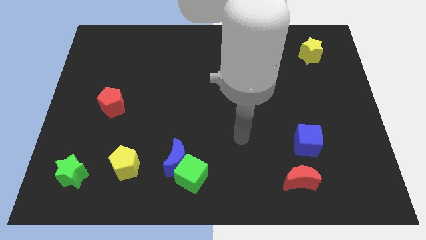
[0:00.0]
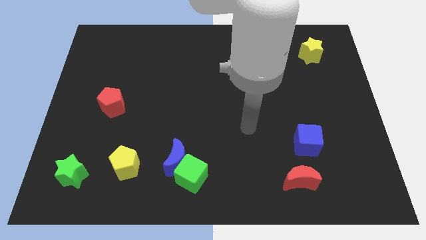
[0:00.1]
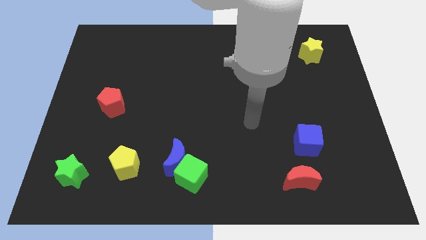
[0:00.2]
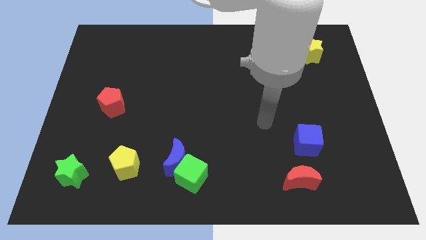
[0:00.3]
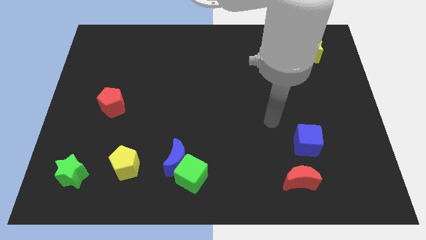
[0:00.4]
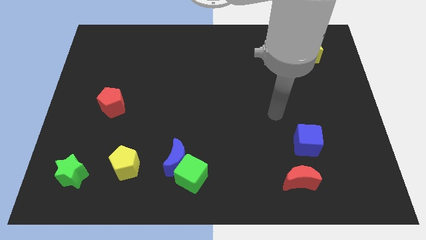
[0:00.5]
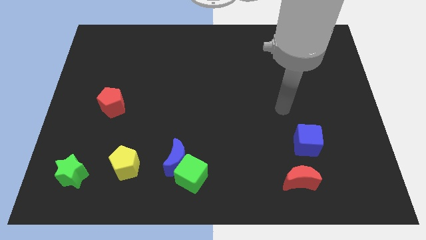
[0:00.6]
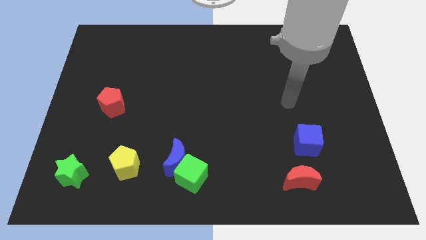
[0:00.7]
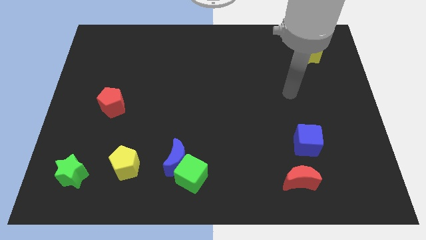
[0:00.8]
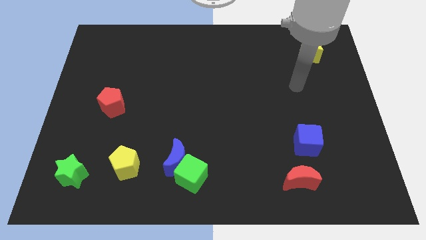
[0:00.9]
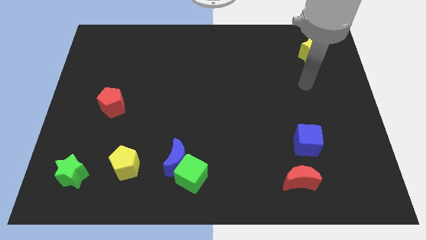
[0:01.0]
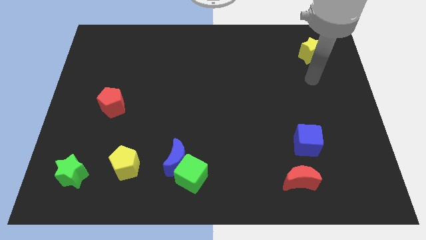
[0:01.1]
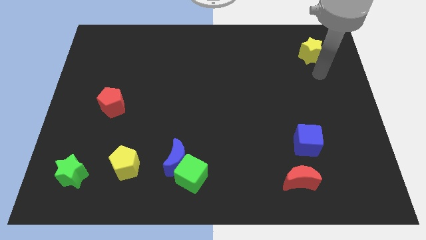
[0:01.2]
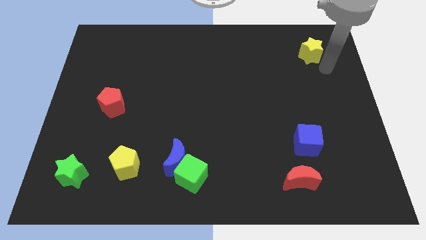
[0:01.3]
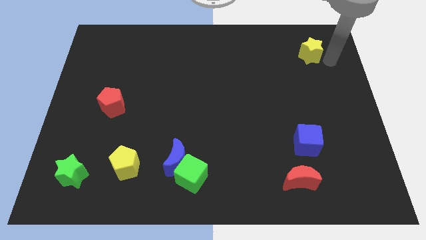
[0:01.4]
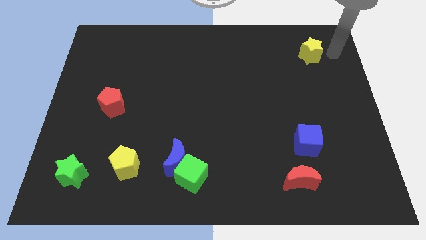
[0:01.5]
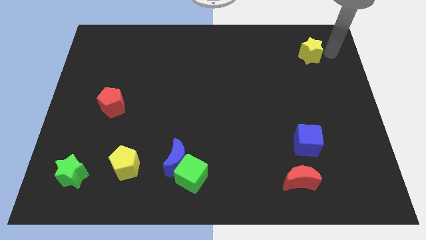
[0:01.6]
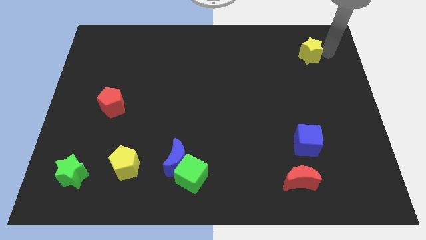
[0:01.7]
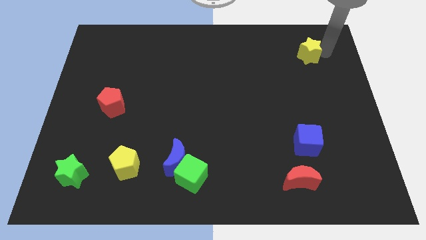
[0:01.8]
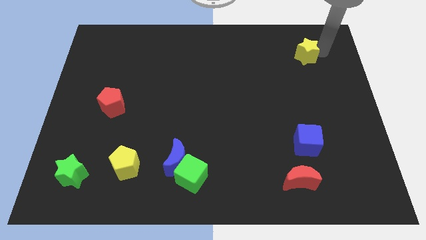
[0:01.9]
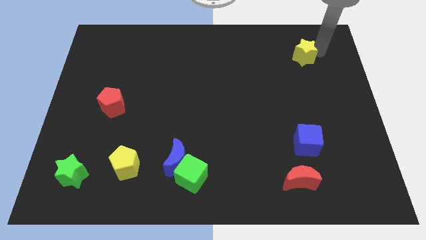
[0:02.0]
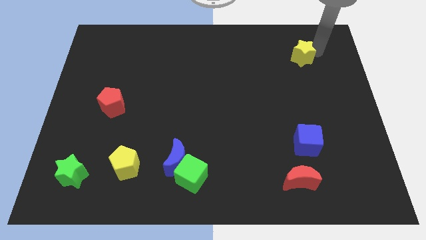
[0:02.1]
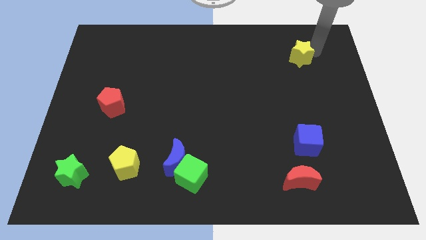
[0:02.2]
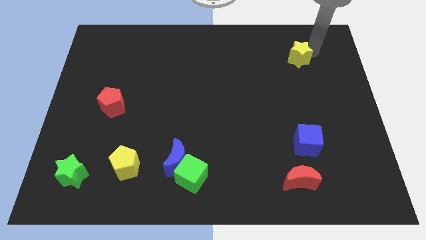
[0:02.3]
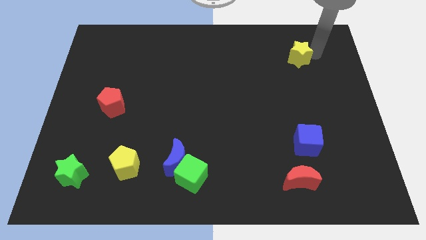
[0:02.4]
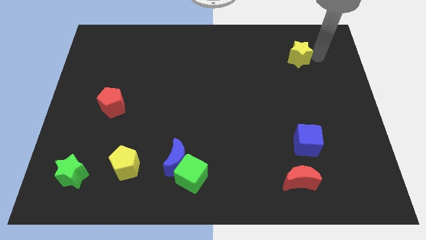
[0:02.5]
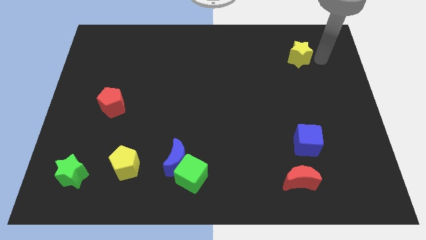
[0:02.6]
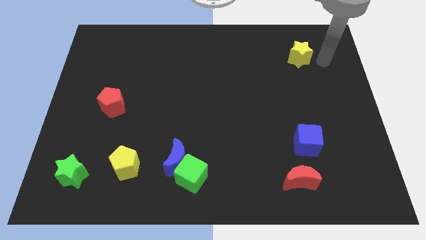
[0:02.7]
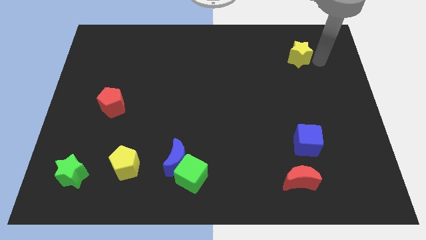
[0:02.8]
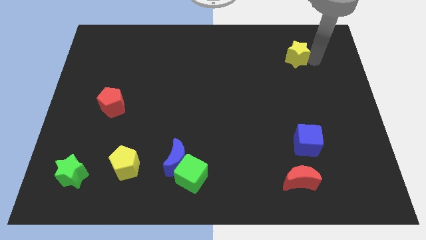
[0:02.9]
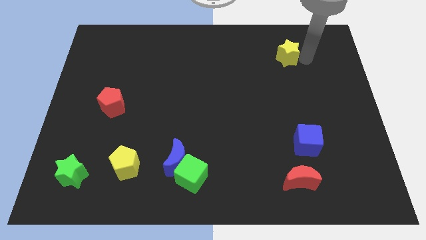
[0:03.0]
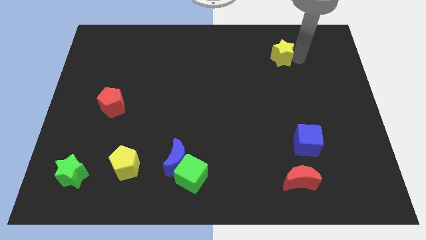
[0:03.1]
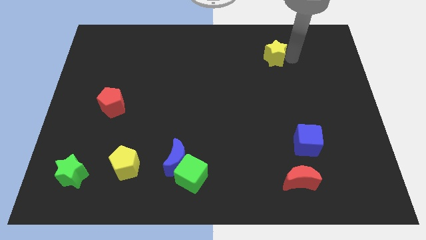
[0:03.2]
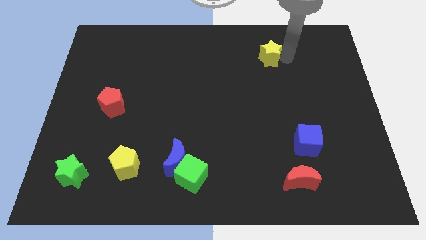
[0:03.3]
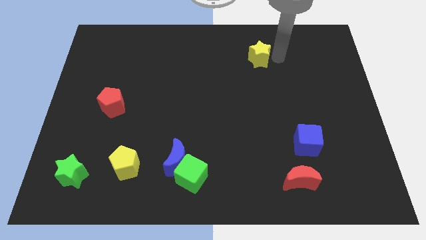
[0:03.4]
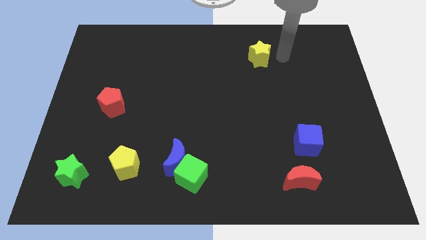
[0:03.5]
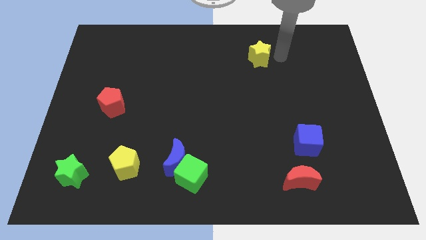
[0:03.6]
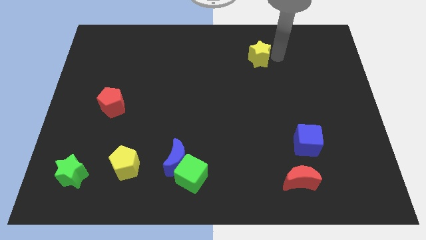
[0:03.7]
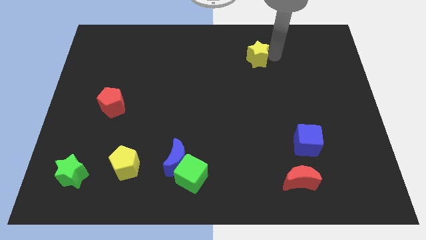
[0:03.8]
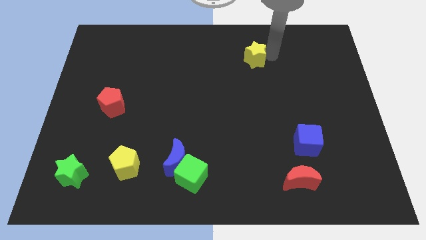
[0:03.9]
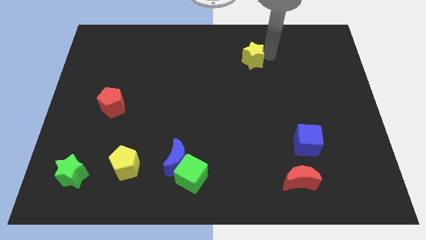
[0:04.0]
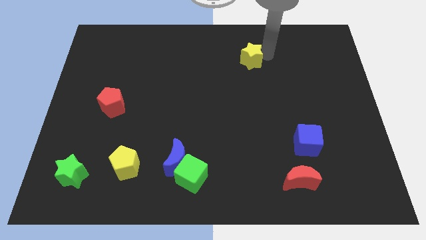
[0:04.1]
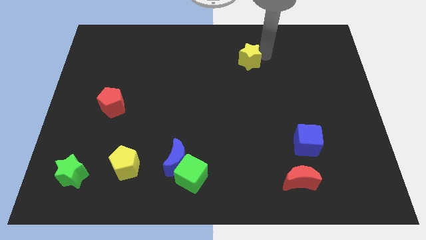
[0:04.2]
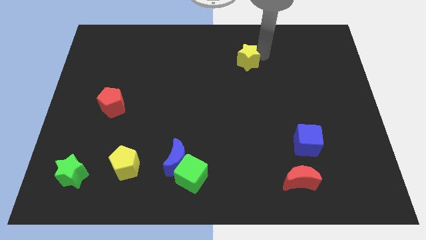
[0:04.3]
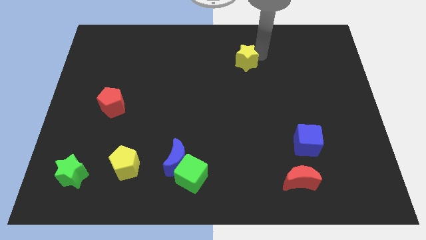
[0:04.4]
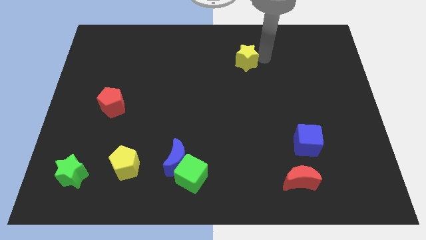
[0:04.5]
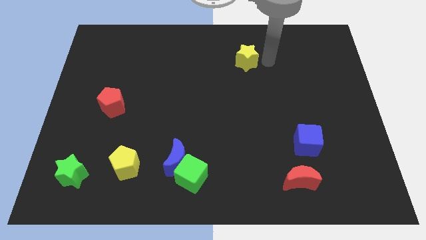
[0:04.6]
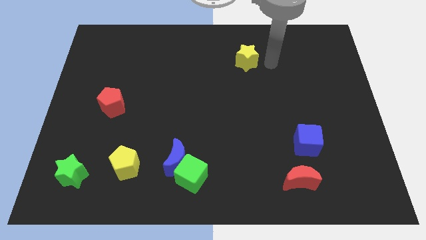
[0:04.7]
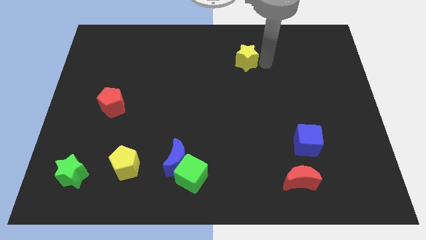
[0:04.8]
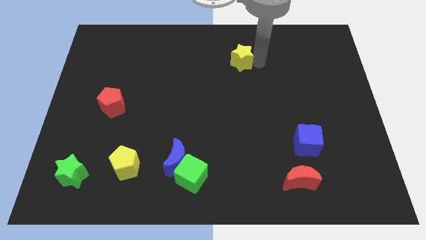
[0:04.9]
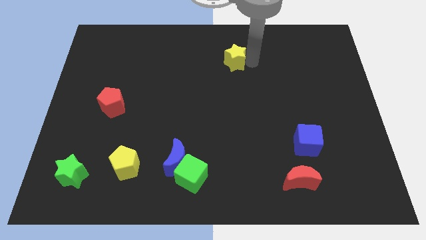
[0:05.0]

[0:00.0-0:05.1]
slide the yellow star to the left

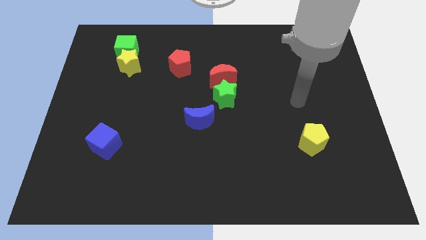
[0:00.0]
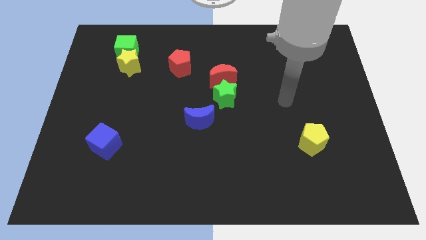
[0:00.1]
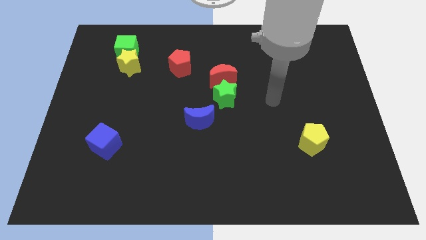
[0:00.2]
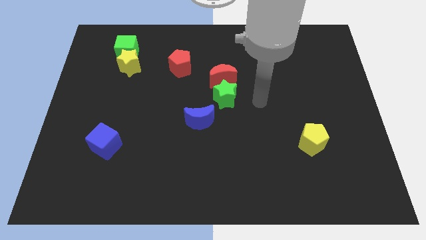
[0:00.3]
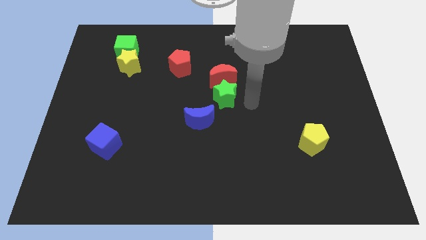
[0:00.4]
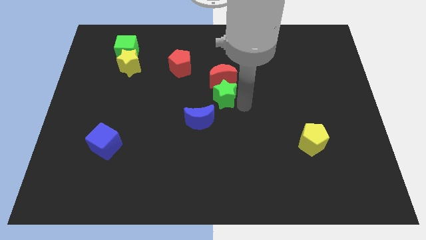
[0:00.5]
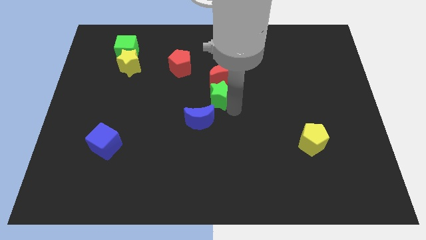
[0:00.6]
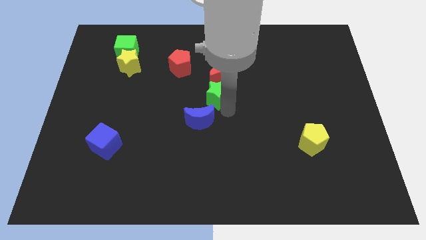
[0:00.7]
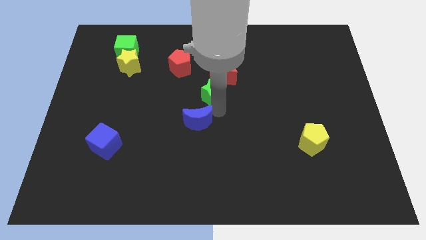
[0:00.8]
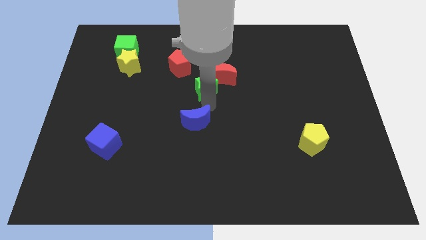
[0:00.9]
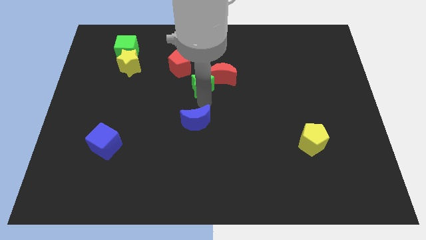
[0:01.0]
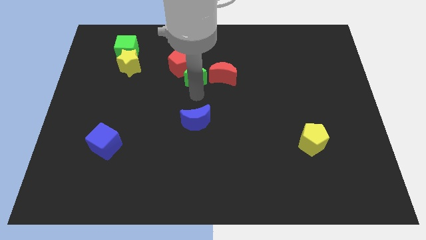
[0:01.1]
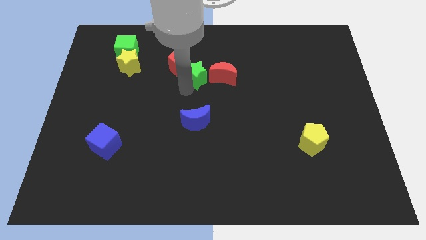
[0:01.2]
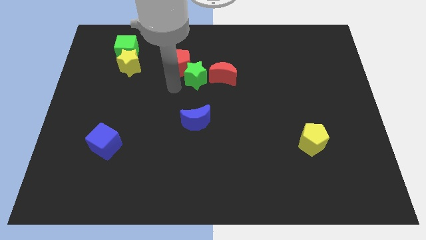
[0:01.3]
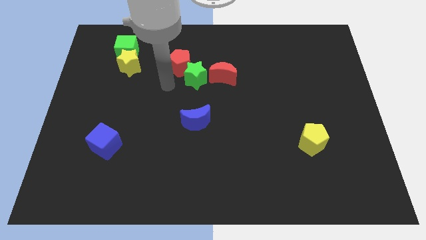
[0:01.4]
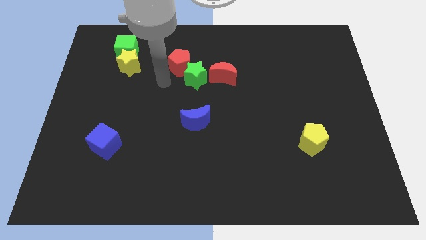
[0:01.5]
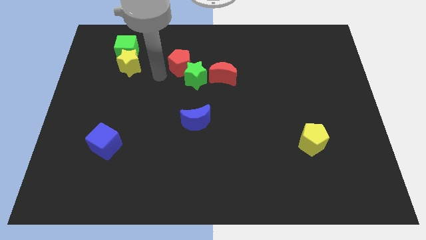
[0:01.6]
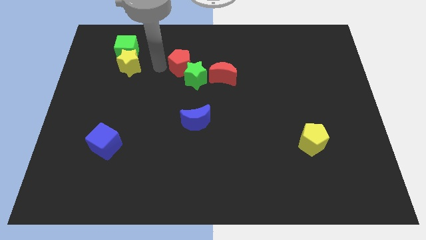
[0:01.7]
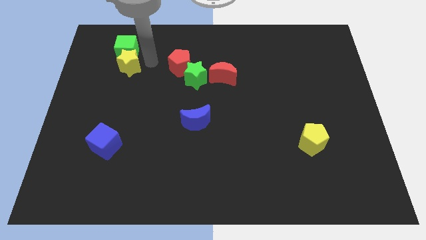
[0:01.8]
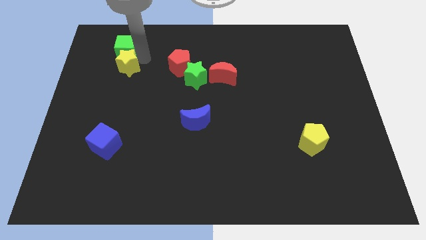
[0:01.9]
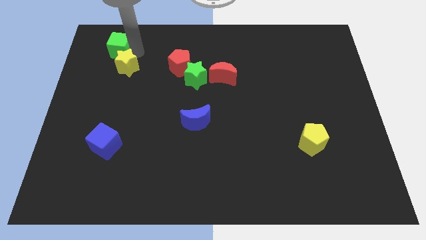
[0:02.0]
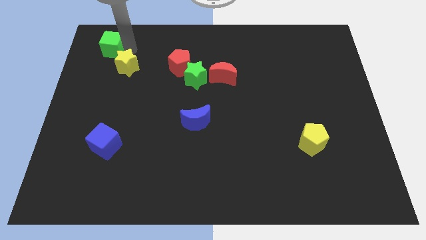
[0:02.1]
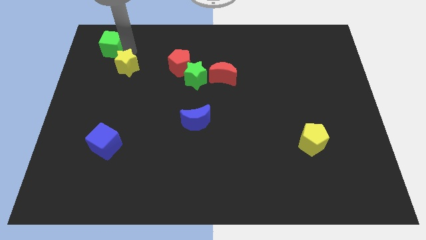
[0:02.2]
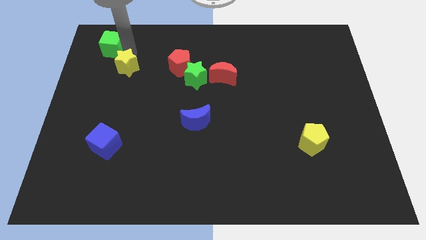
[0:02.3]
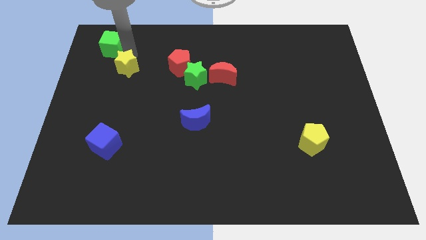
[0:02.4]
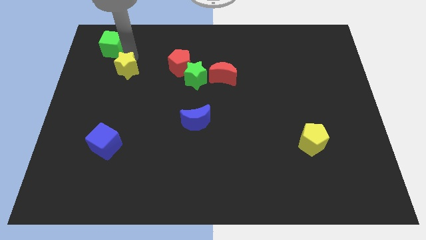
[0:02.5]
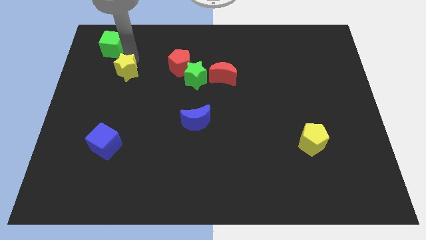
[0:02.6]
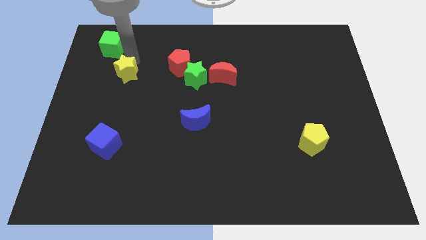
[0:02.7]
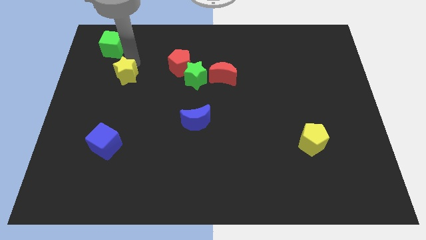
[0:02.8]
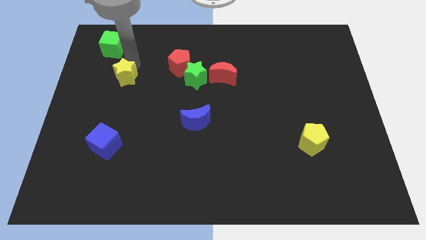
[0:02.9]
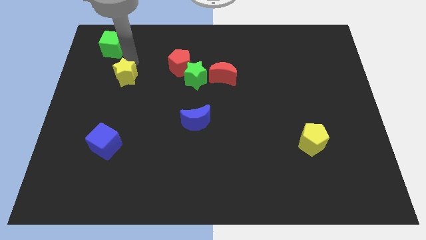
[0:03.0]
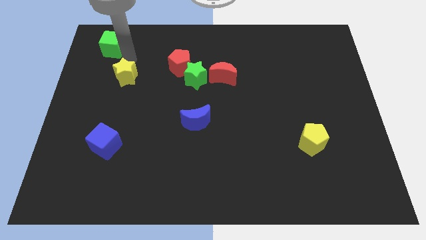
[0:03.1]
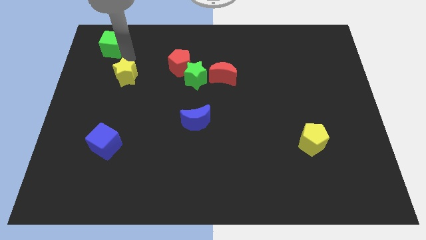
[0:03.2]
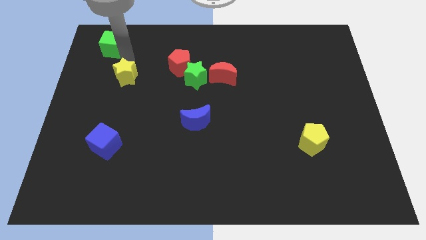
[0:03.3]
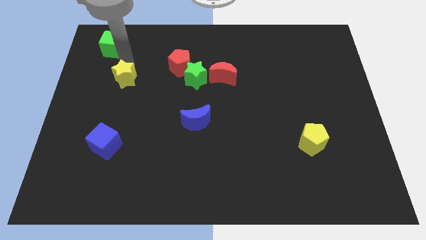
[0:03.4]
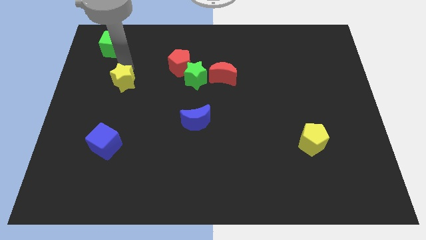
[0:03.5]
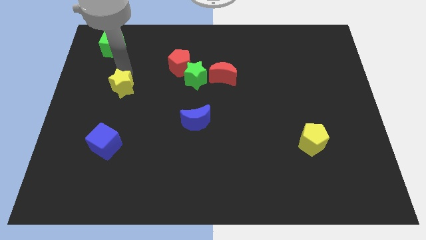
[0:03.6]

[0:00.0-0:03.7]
push the yellow star somewhat downwards
